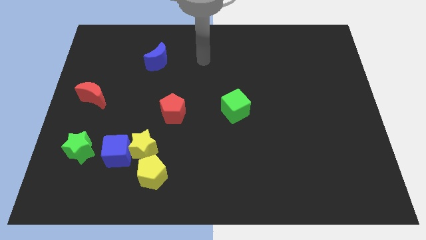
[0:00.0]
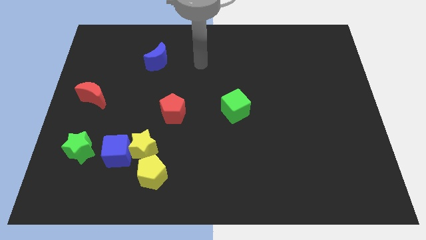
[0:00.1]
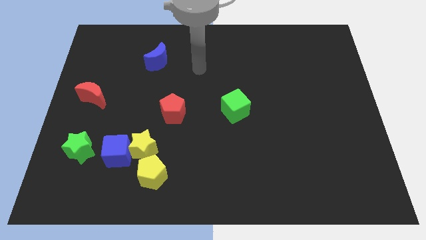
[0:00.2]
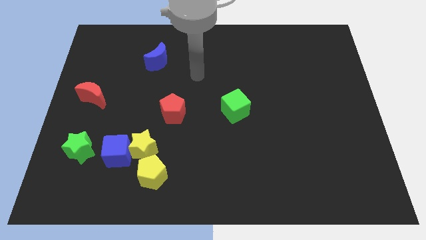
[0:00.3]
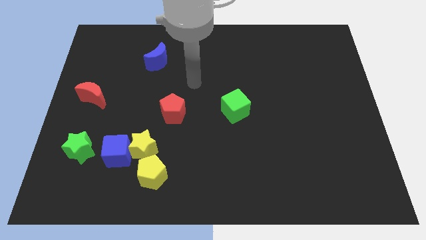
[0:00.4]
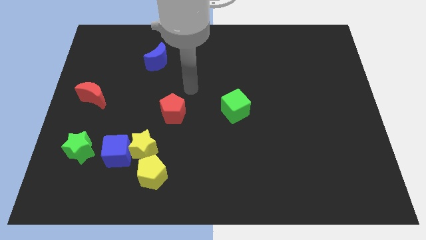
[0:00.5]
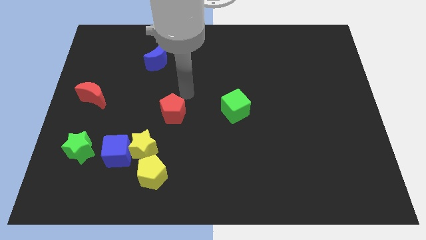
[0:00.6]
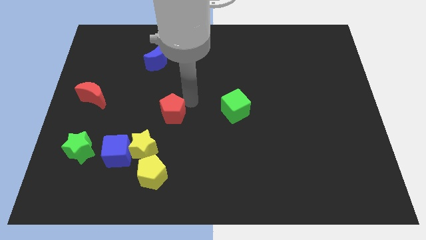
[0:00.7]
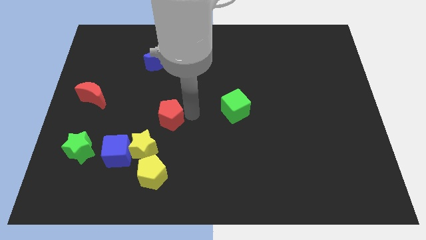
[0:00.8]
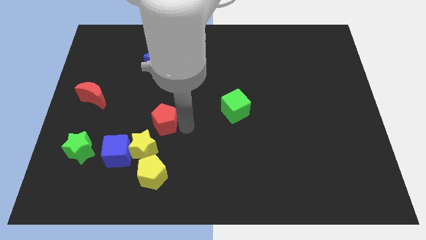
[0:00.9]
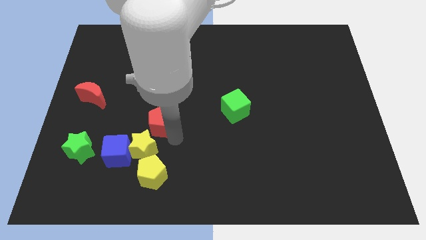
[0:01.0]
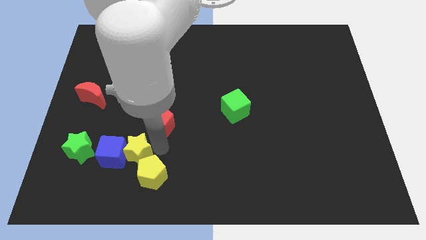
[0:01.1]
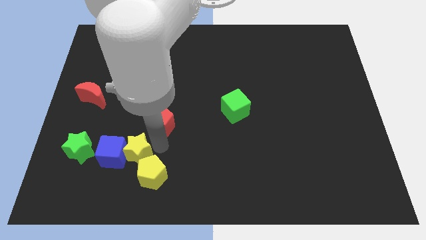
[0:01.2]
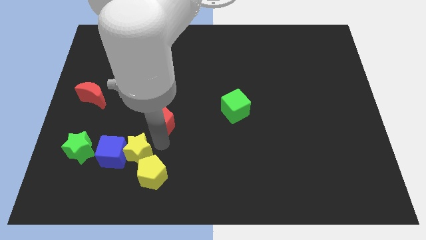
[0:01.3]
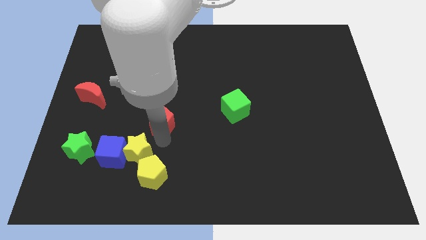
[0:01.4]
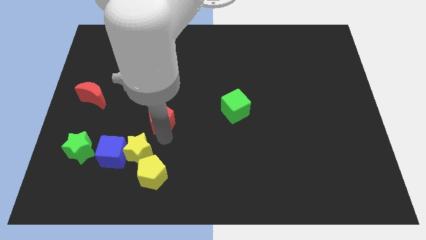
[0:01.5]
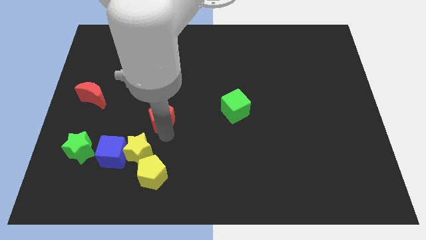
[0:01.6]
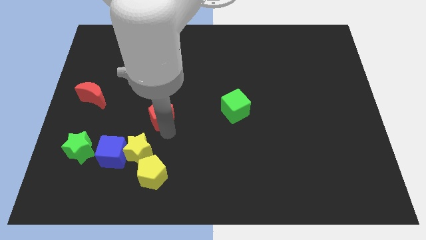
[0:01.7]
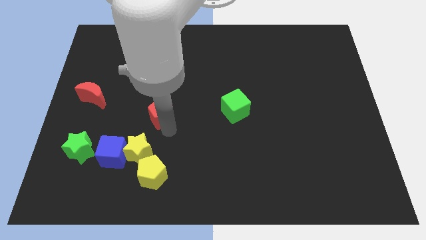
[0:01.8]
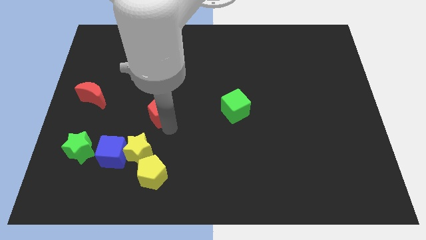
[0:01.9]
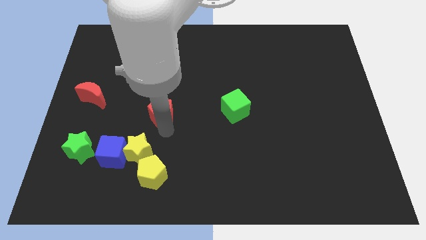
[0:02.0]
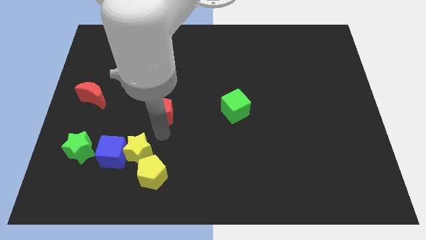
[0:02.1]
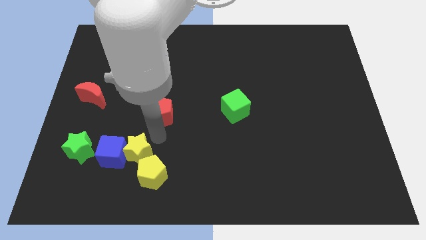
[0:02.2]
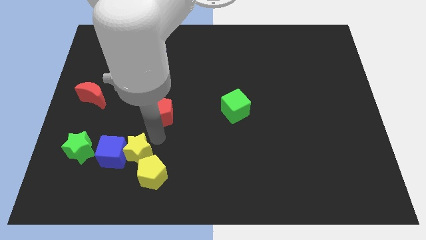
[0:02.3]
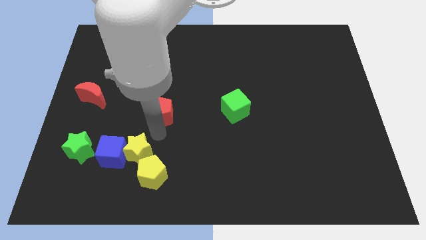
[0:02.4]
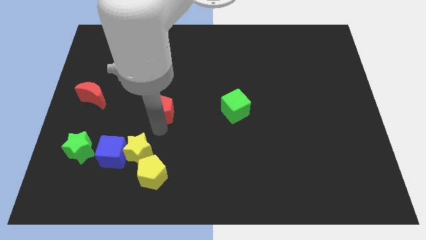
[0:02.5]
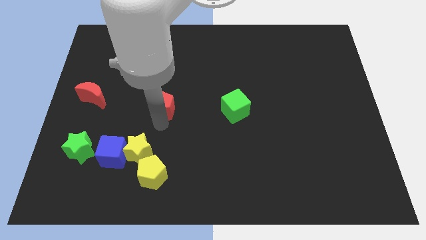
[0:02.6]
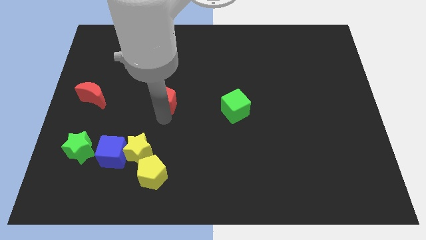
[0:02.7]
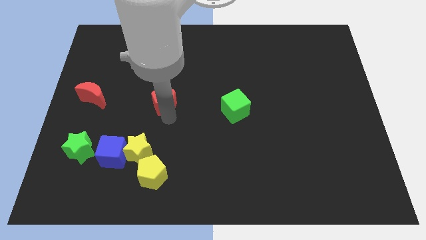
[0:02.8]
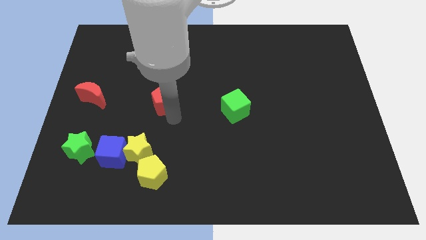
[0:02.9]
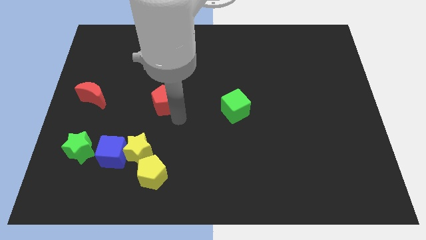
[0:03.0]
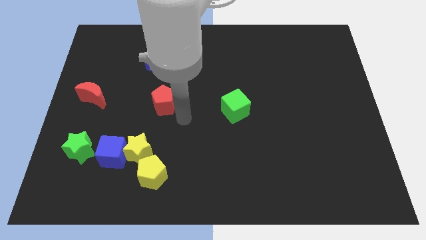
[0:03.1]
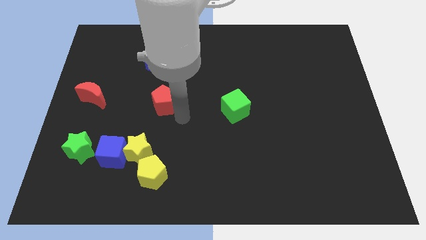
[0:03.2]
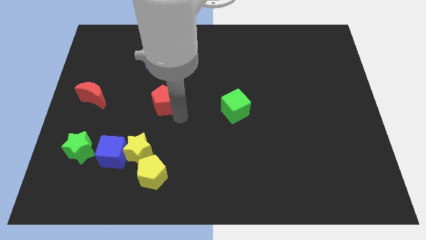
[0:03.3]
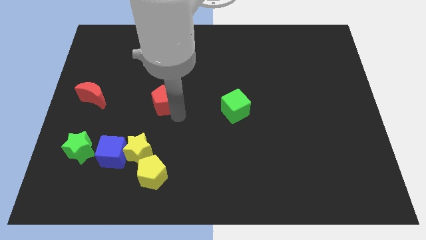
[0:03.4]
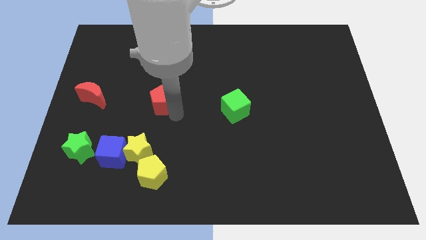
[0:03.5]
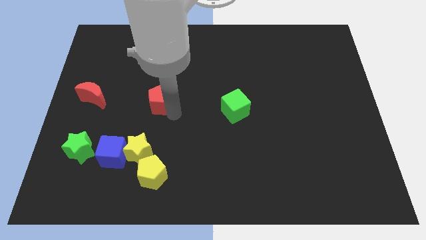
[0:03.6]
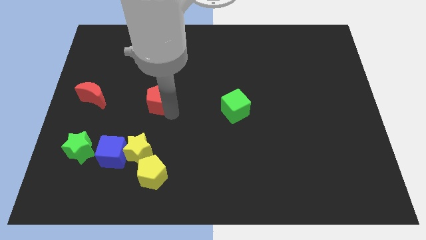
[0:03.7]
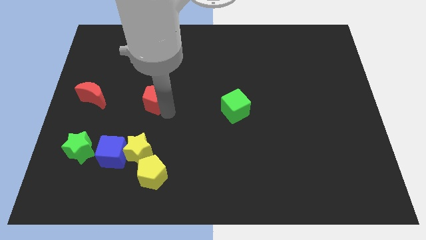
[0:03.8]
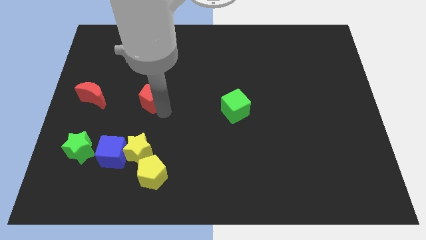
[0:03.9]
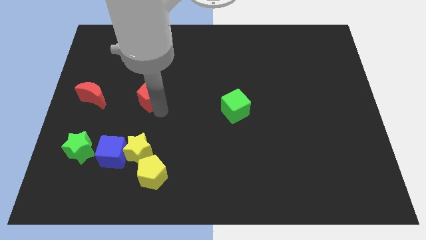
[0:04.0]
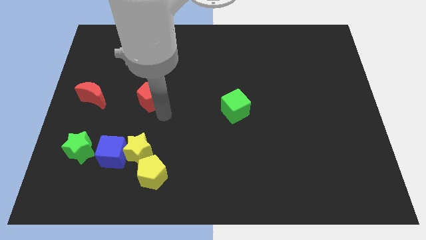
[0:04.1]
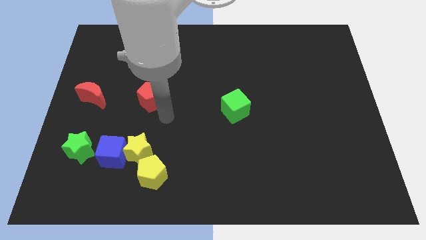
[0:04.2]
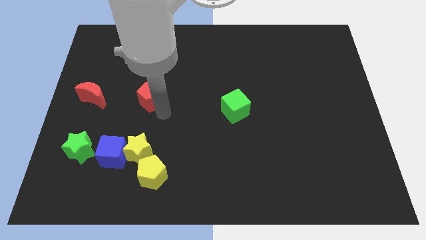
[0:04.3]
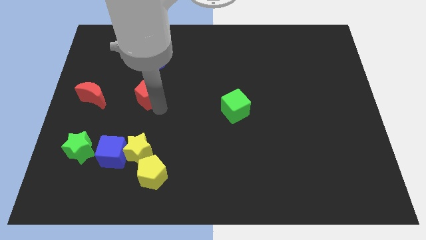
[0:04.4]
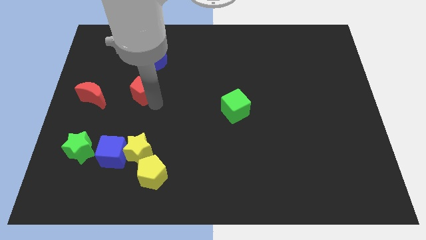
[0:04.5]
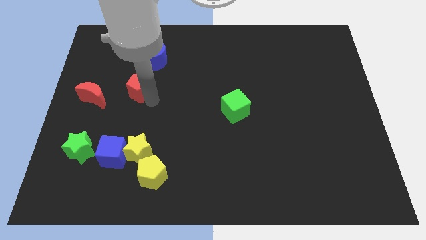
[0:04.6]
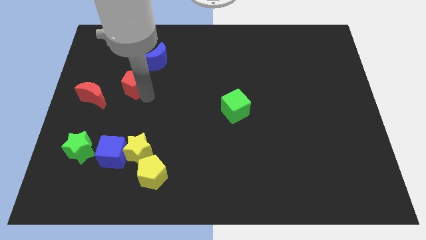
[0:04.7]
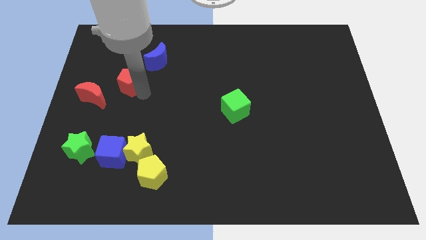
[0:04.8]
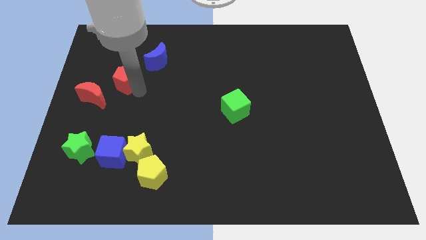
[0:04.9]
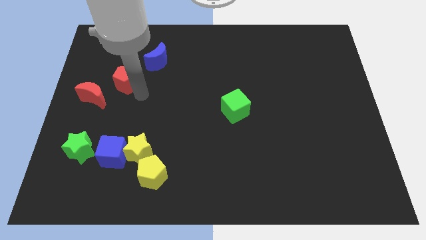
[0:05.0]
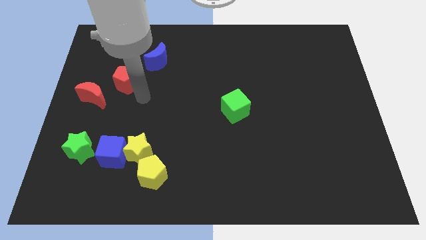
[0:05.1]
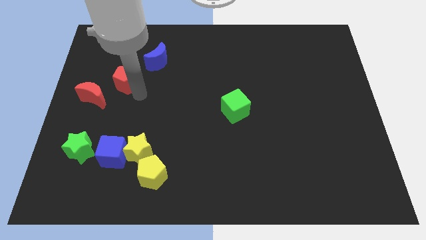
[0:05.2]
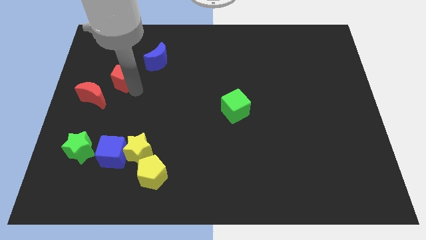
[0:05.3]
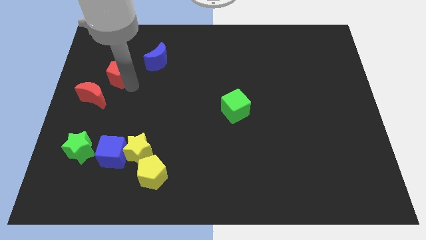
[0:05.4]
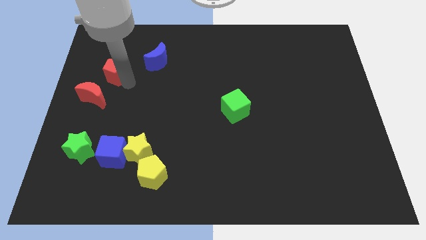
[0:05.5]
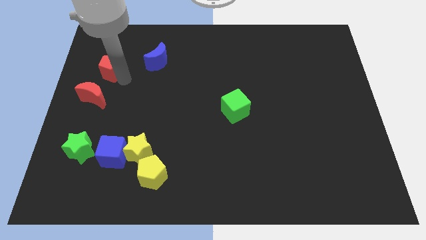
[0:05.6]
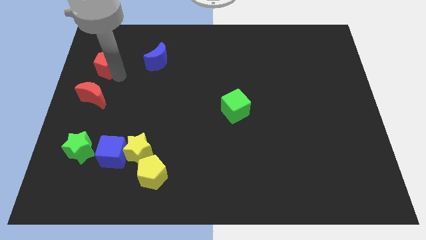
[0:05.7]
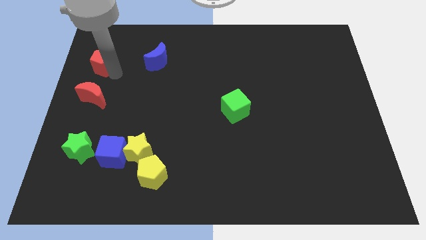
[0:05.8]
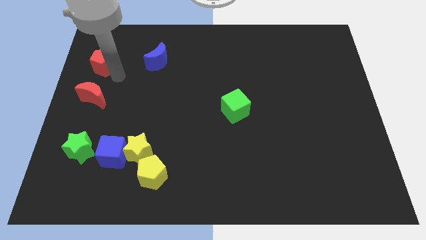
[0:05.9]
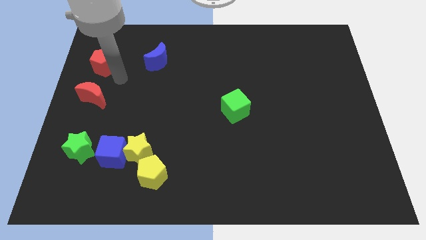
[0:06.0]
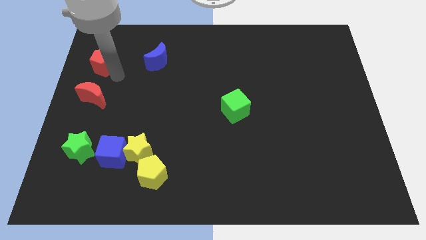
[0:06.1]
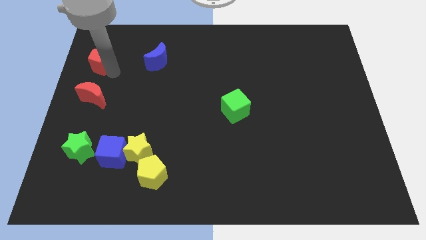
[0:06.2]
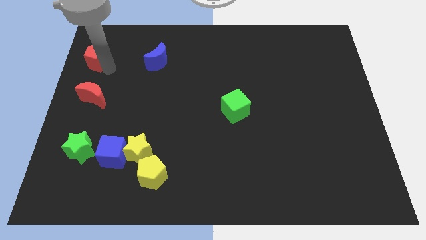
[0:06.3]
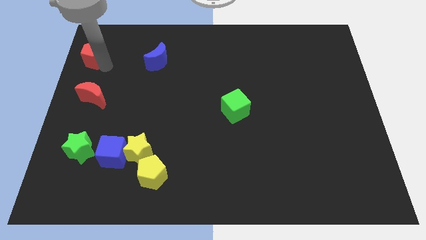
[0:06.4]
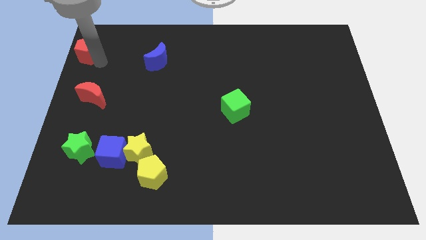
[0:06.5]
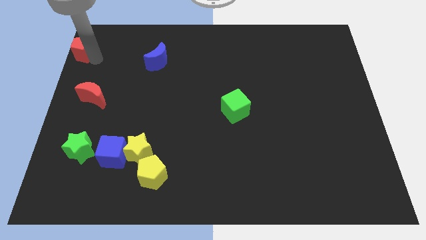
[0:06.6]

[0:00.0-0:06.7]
put the red pentagon to the top left

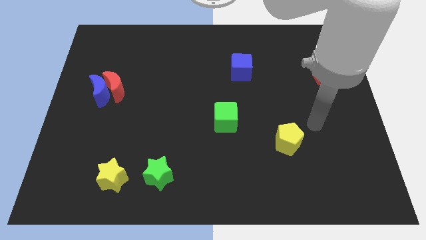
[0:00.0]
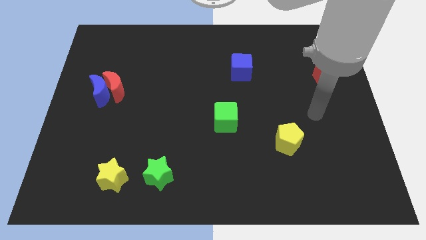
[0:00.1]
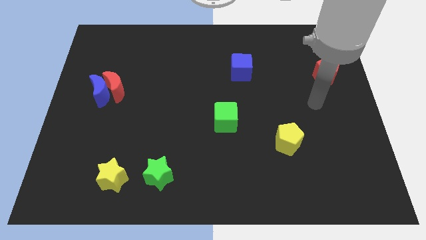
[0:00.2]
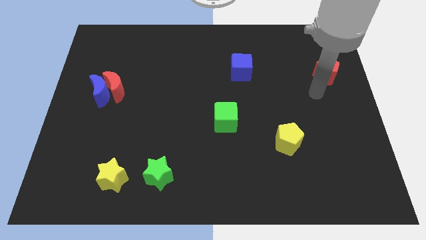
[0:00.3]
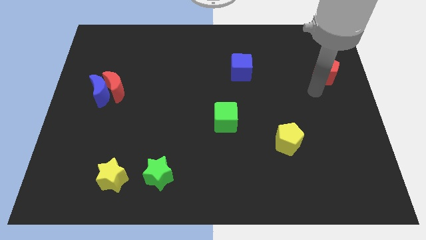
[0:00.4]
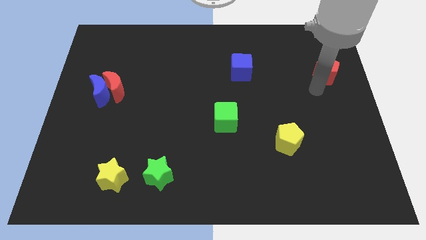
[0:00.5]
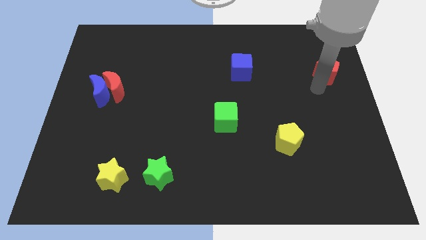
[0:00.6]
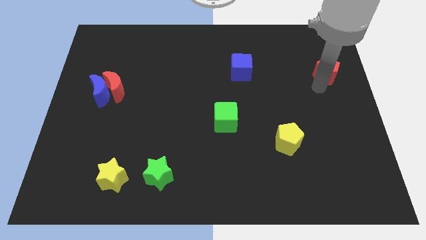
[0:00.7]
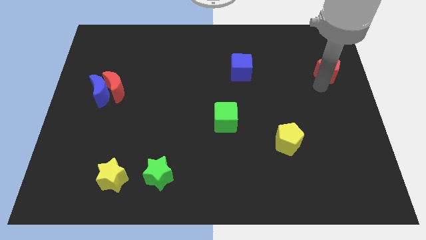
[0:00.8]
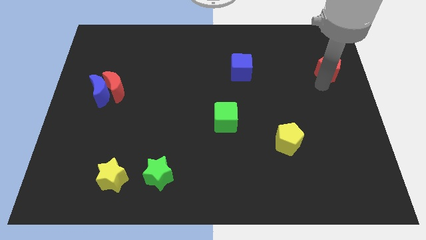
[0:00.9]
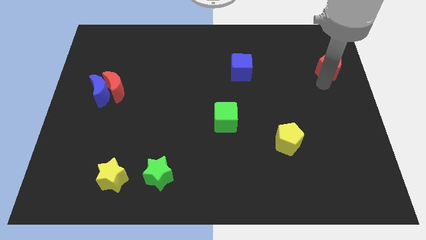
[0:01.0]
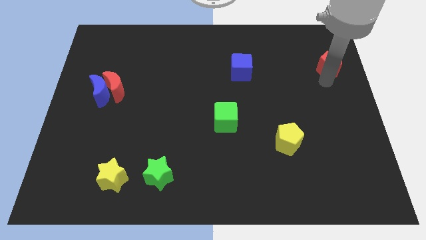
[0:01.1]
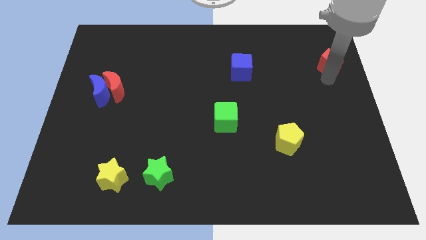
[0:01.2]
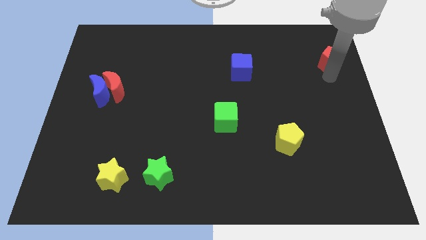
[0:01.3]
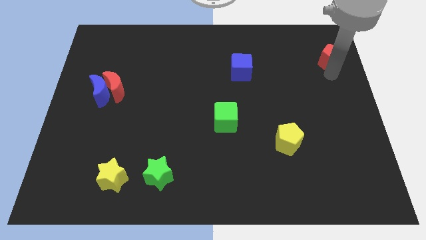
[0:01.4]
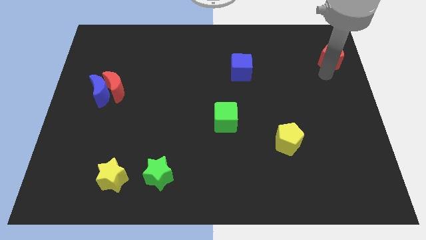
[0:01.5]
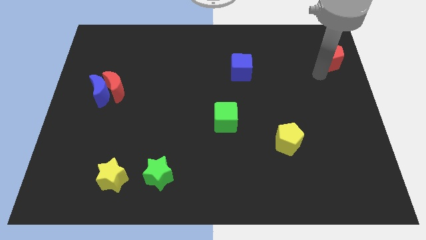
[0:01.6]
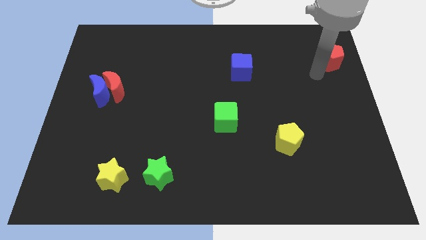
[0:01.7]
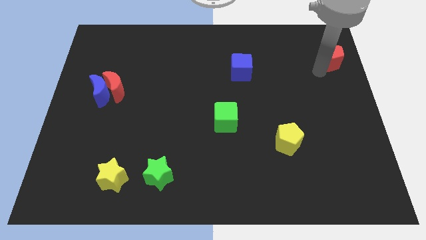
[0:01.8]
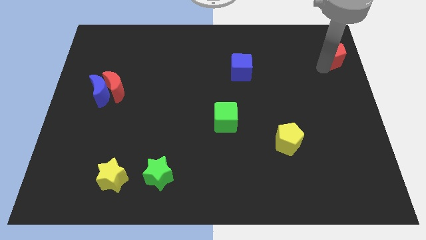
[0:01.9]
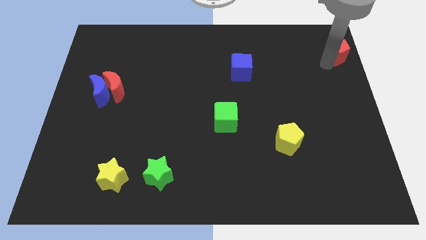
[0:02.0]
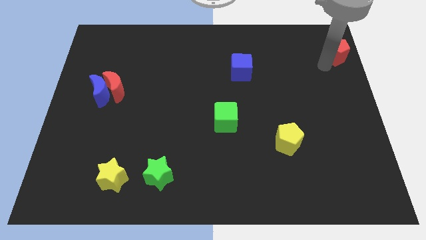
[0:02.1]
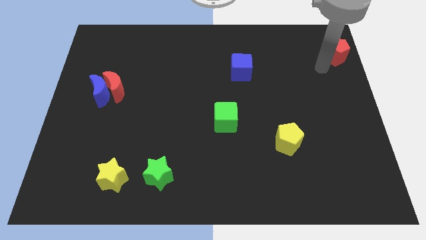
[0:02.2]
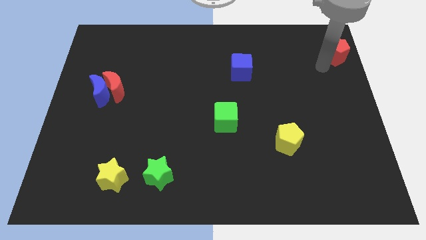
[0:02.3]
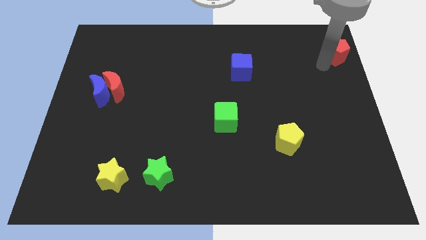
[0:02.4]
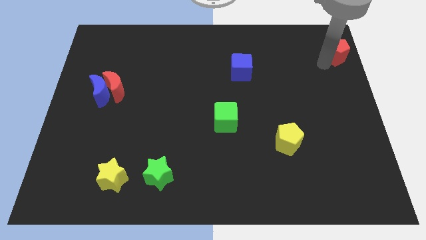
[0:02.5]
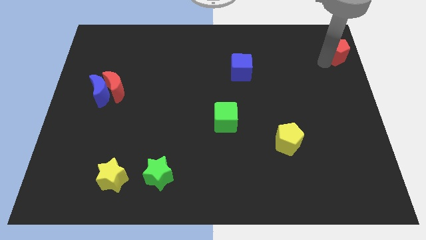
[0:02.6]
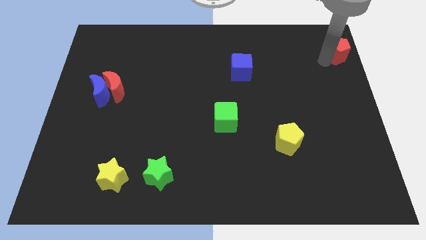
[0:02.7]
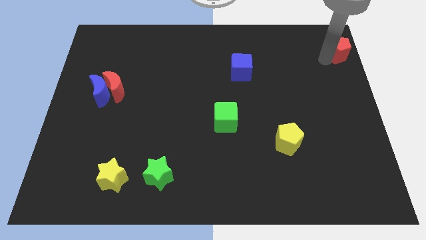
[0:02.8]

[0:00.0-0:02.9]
move the red pentagon to the top right
